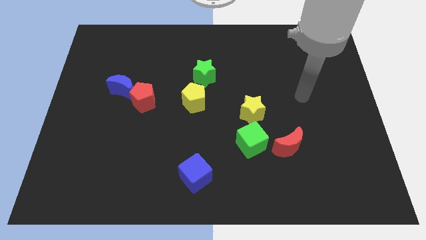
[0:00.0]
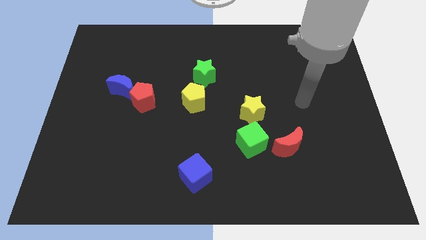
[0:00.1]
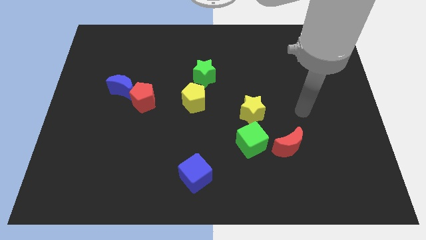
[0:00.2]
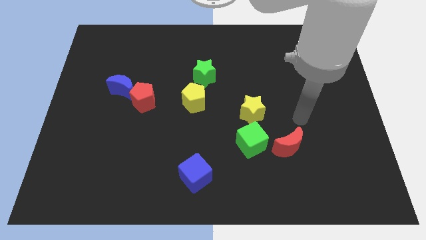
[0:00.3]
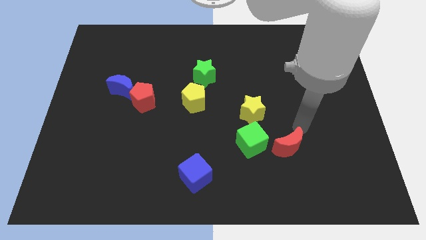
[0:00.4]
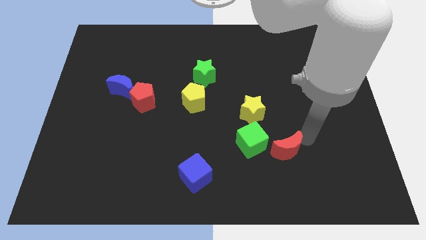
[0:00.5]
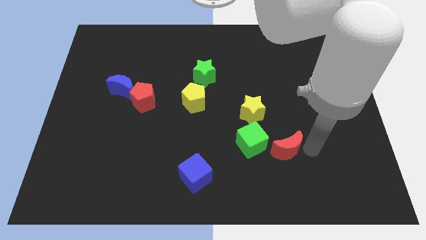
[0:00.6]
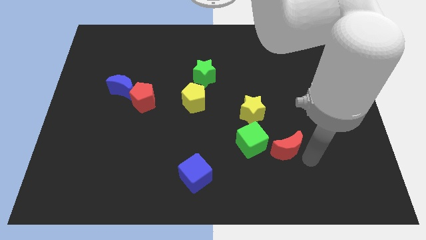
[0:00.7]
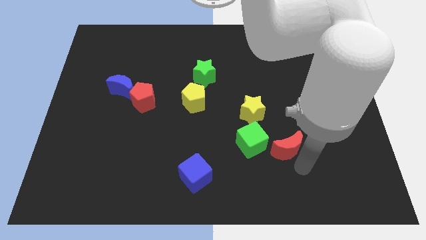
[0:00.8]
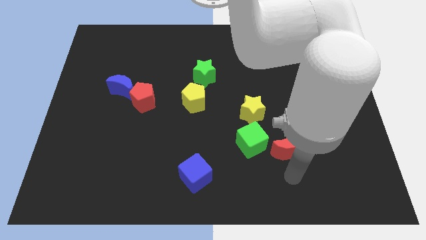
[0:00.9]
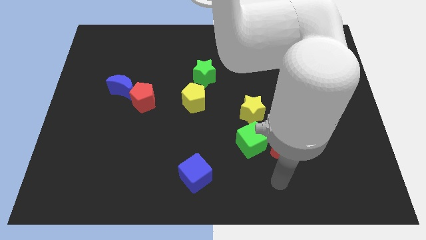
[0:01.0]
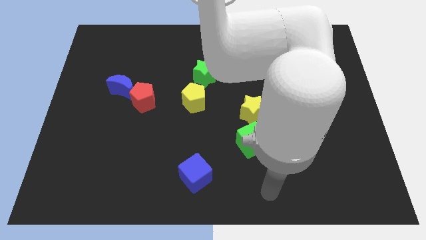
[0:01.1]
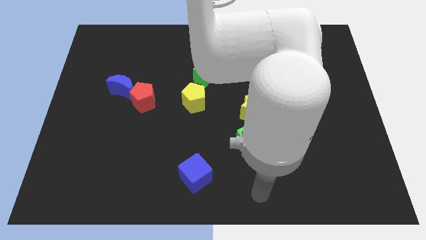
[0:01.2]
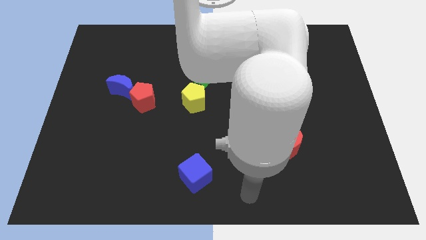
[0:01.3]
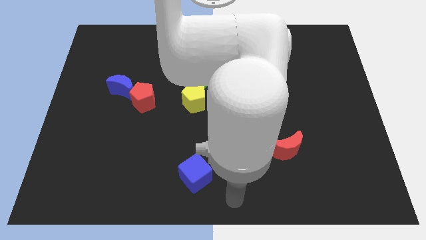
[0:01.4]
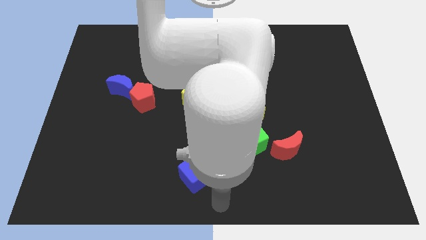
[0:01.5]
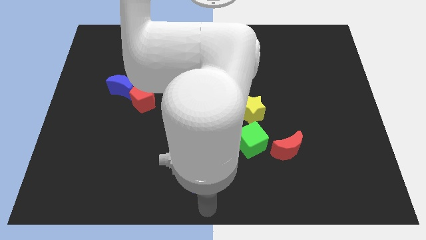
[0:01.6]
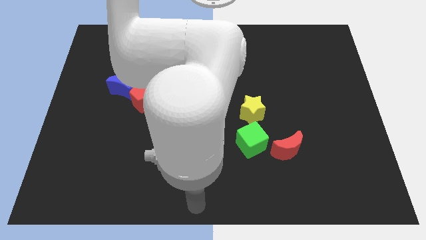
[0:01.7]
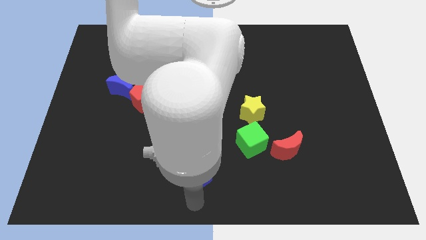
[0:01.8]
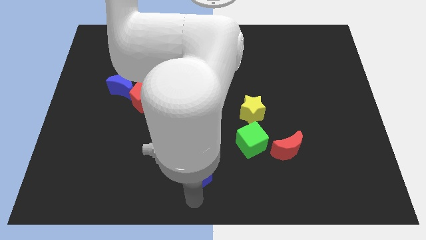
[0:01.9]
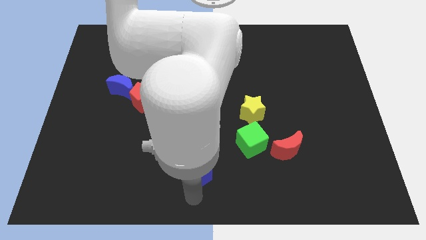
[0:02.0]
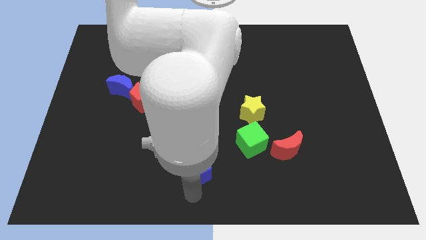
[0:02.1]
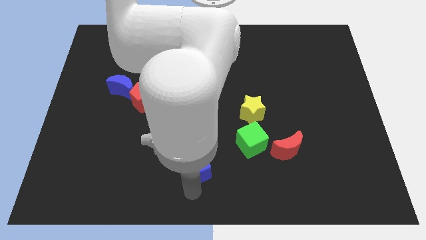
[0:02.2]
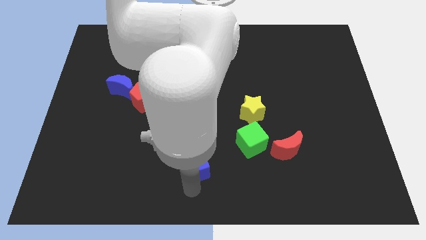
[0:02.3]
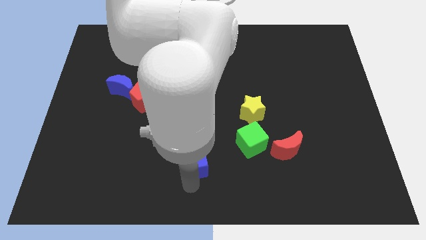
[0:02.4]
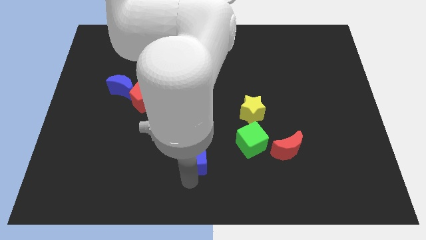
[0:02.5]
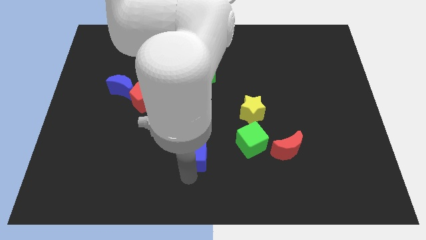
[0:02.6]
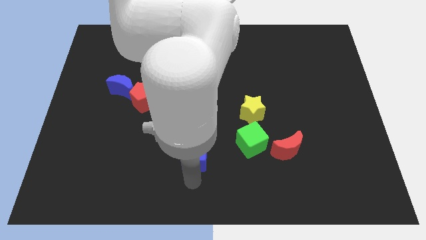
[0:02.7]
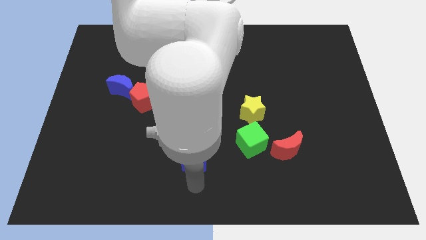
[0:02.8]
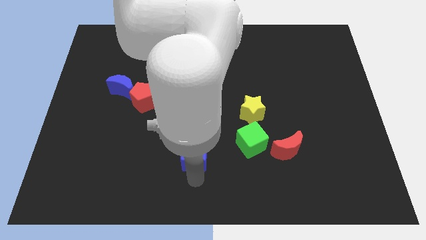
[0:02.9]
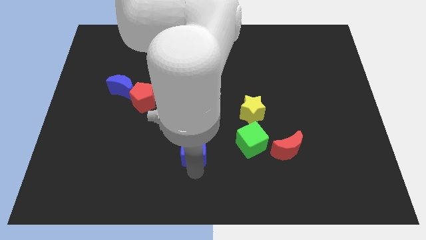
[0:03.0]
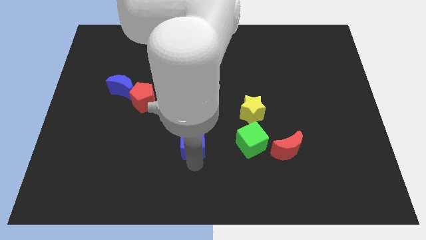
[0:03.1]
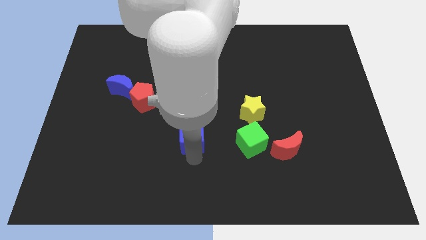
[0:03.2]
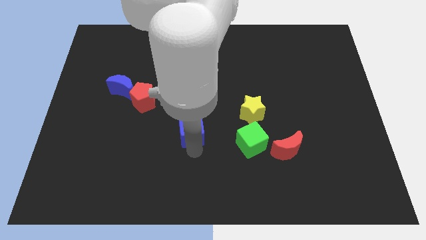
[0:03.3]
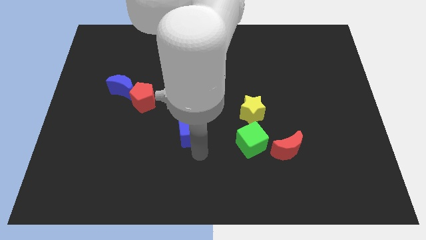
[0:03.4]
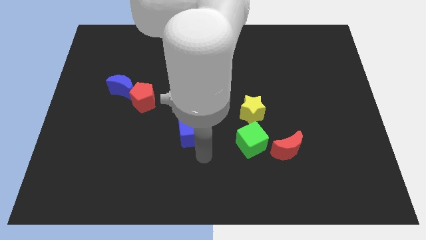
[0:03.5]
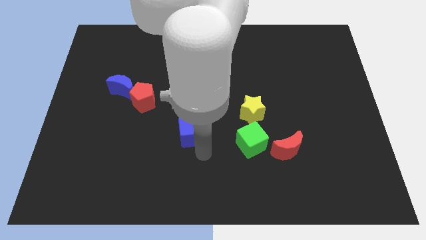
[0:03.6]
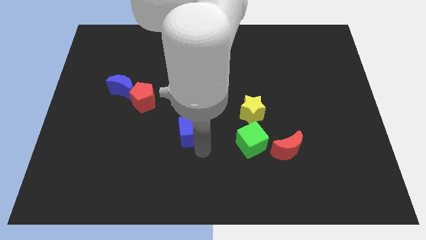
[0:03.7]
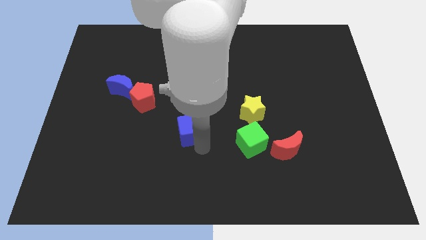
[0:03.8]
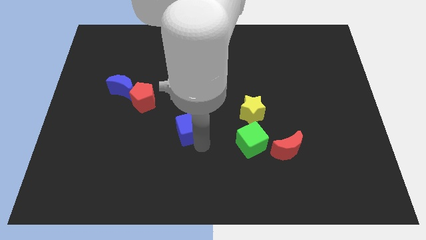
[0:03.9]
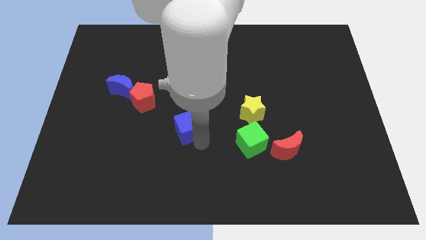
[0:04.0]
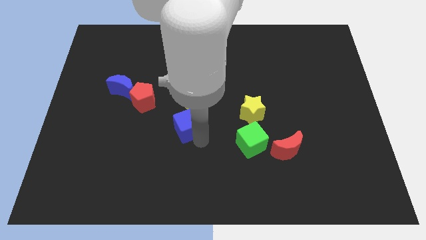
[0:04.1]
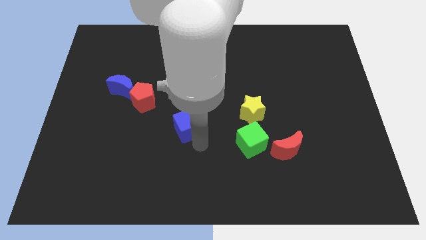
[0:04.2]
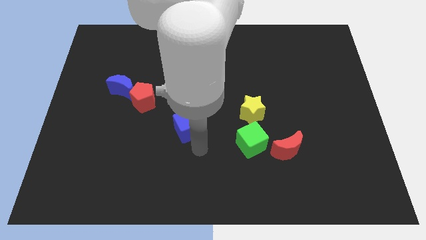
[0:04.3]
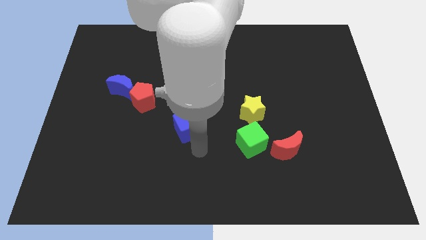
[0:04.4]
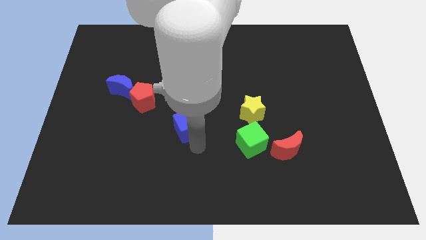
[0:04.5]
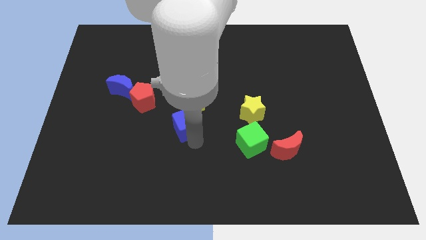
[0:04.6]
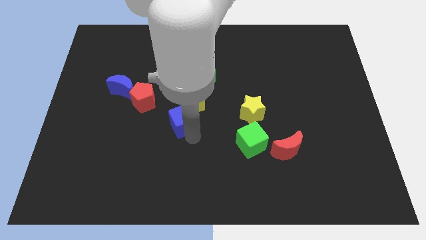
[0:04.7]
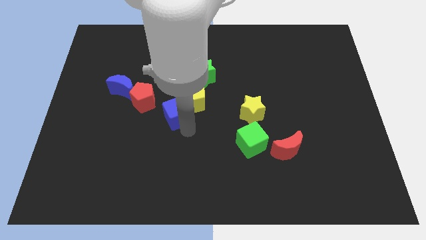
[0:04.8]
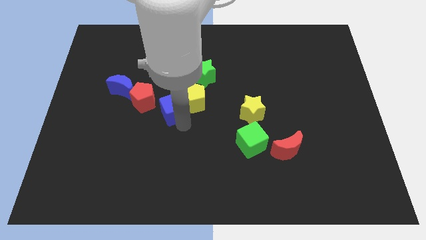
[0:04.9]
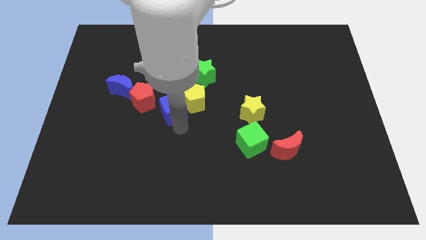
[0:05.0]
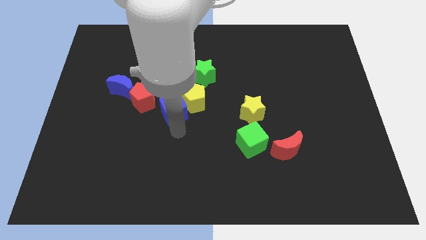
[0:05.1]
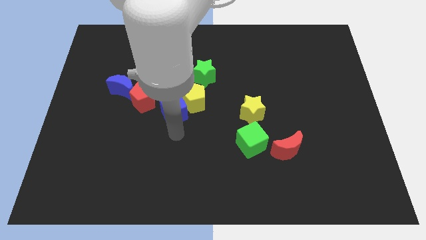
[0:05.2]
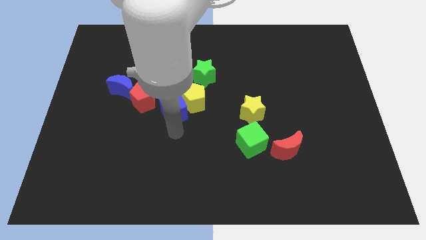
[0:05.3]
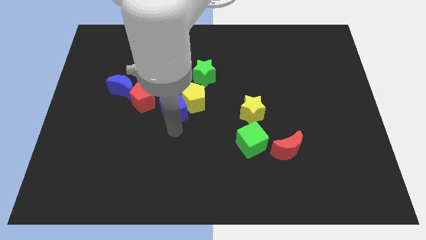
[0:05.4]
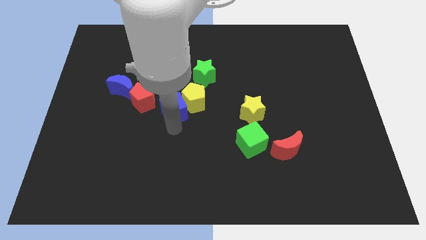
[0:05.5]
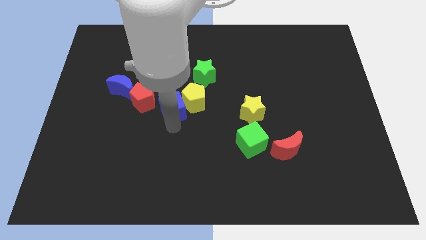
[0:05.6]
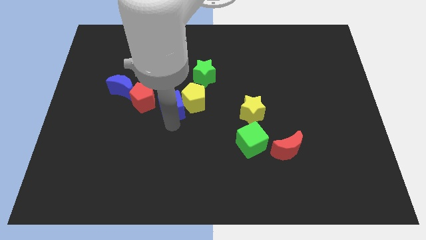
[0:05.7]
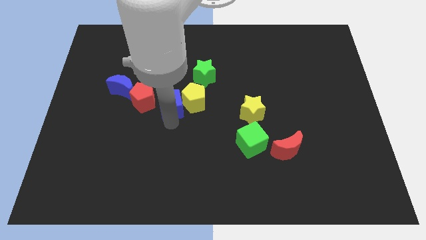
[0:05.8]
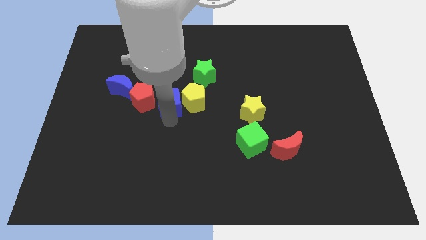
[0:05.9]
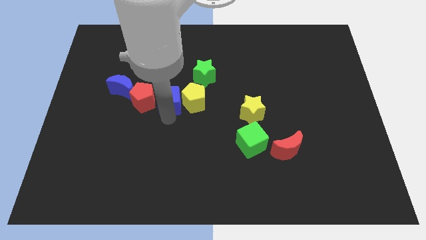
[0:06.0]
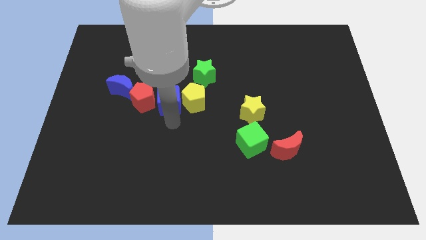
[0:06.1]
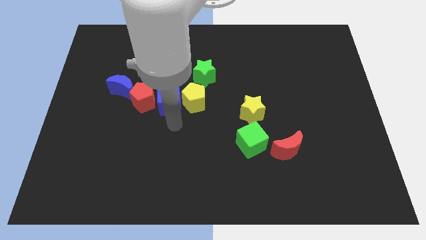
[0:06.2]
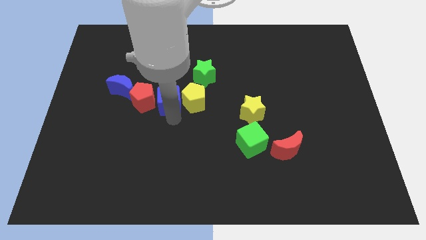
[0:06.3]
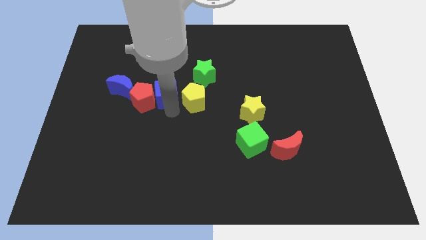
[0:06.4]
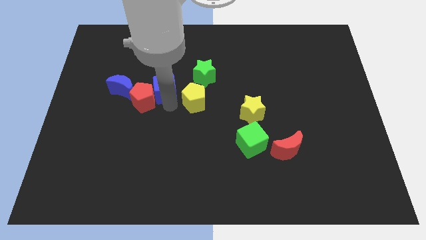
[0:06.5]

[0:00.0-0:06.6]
slide the blue cube to the left of the green star
